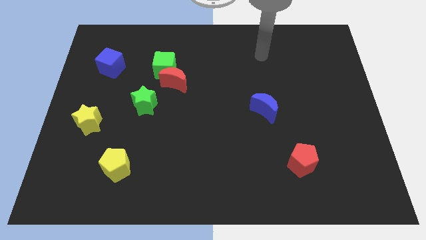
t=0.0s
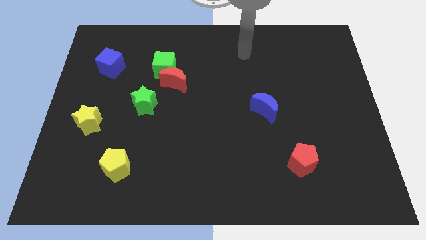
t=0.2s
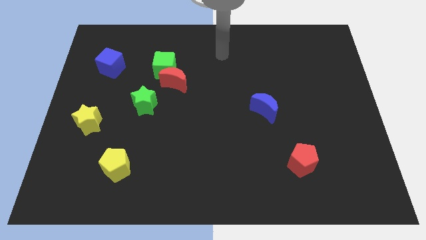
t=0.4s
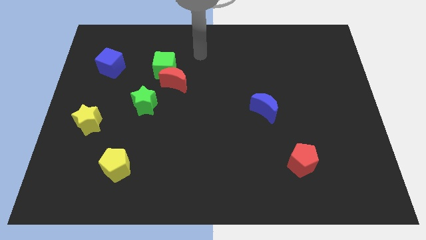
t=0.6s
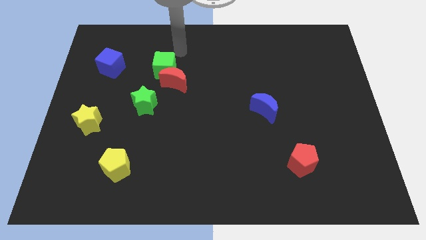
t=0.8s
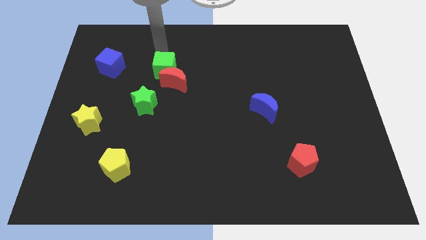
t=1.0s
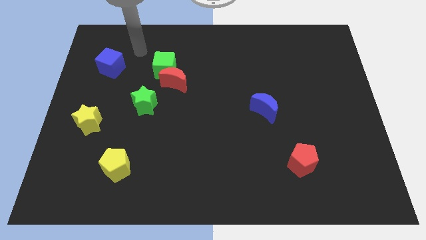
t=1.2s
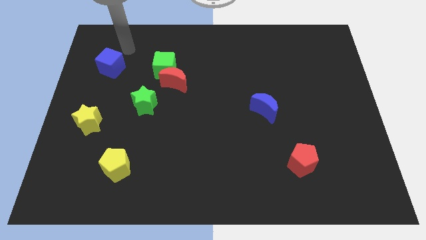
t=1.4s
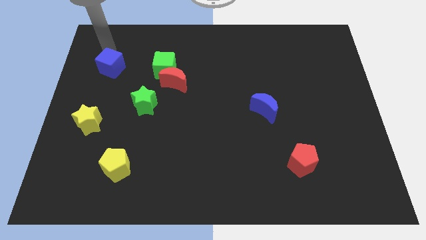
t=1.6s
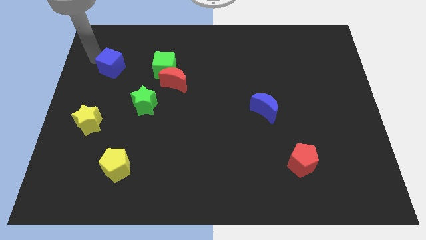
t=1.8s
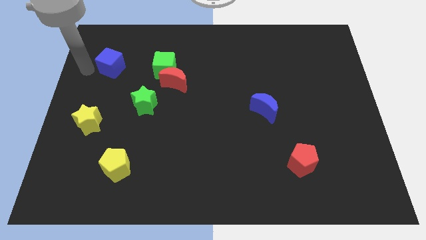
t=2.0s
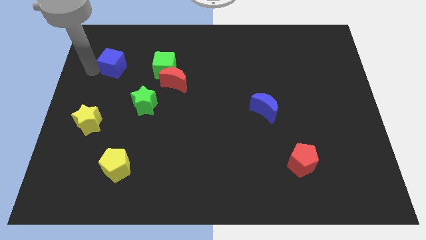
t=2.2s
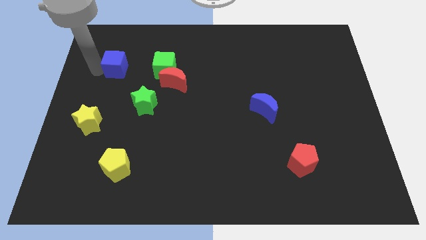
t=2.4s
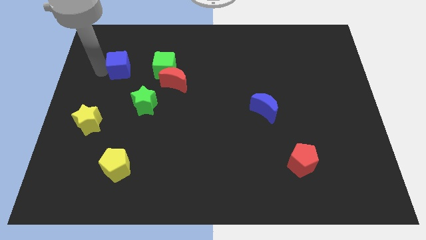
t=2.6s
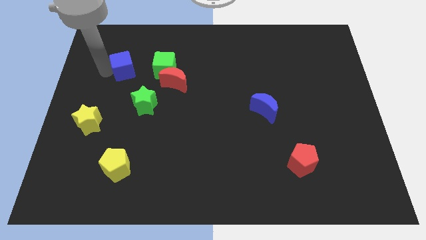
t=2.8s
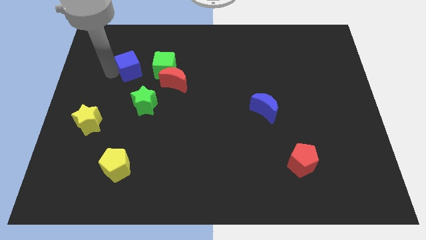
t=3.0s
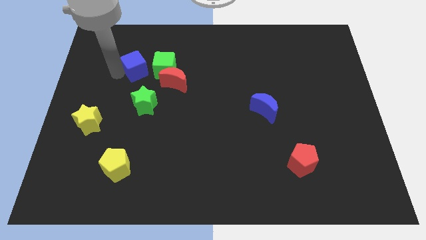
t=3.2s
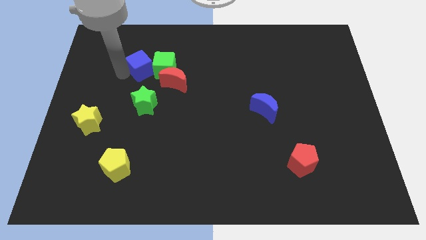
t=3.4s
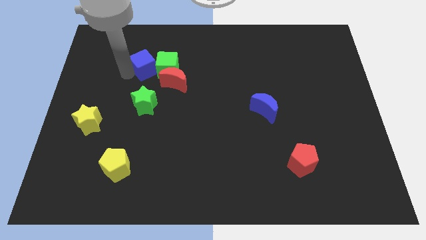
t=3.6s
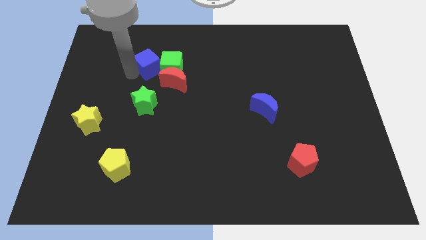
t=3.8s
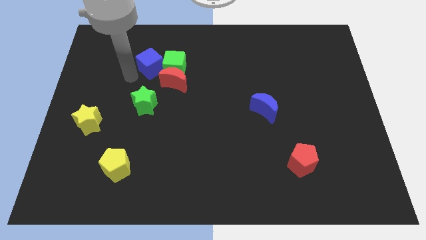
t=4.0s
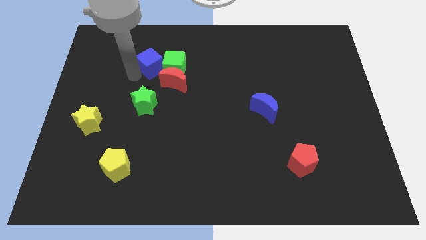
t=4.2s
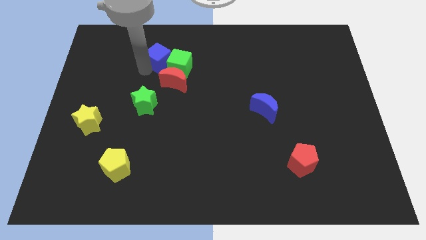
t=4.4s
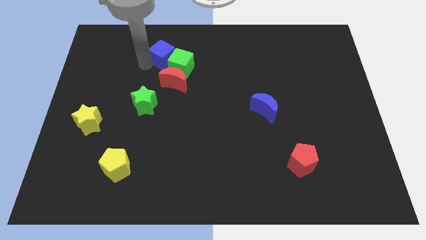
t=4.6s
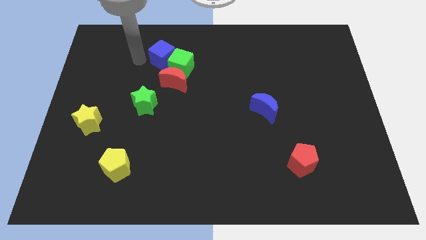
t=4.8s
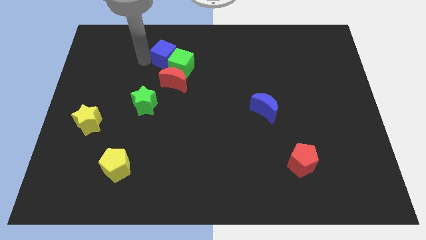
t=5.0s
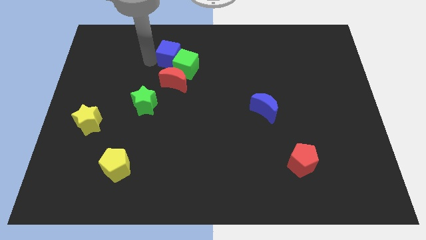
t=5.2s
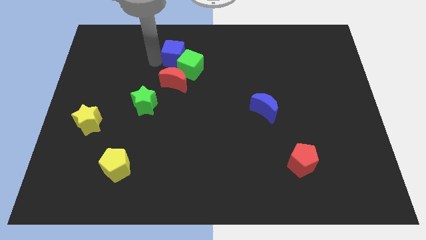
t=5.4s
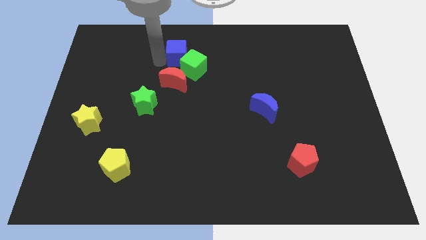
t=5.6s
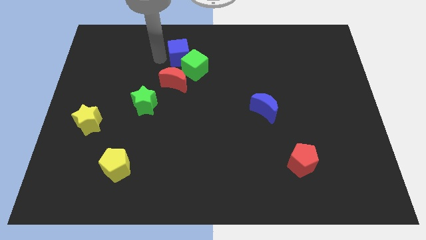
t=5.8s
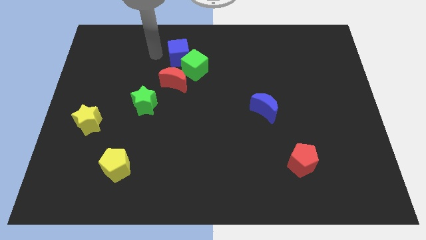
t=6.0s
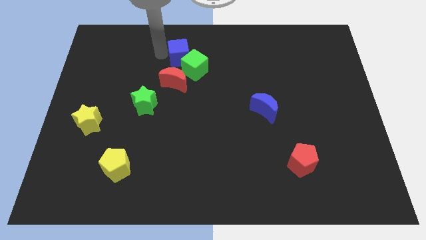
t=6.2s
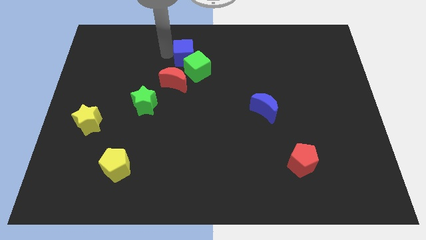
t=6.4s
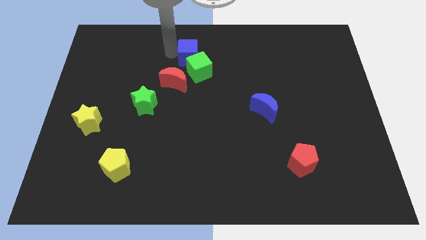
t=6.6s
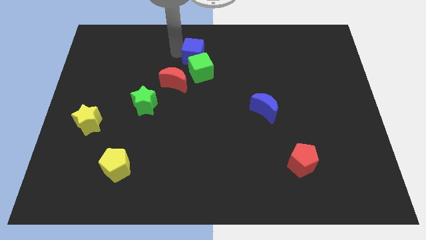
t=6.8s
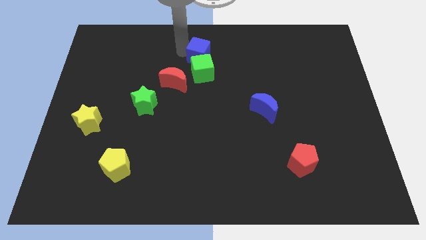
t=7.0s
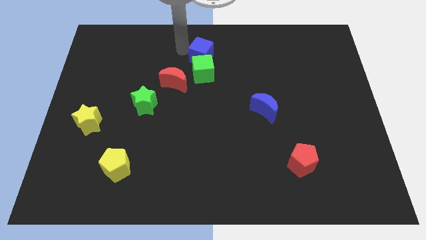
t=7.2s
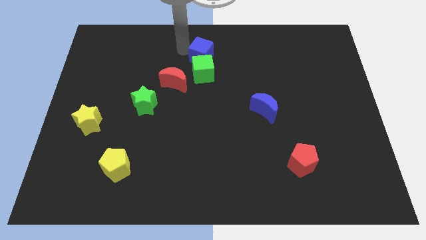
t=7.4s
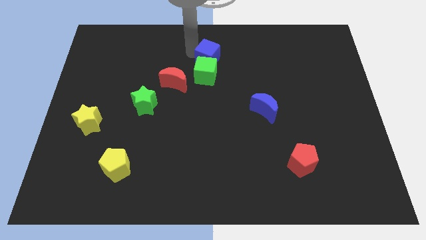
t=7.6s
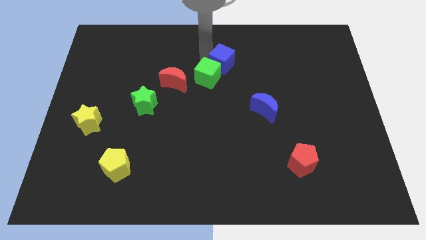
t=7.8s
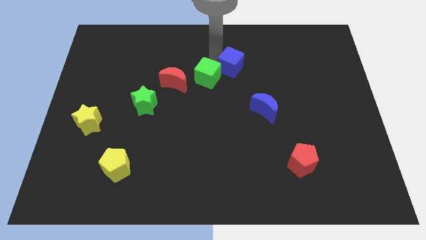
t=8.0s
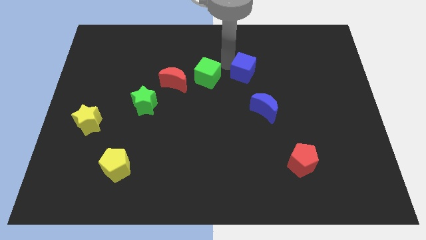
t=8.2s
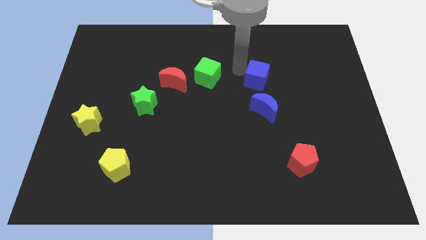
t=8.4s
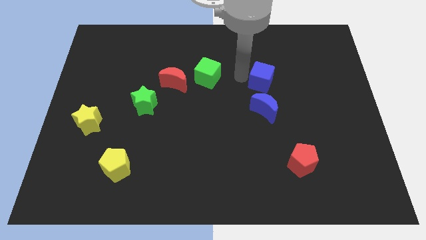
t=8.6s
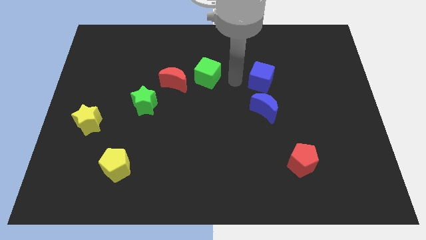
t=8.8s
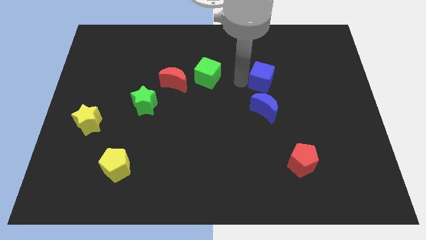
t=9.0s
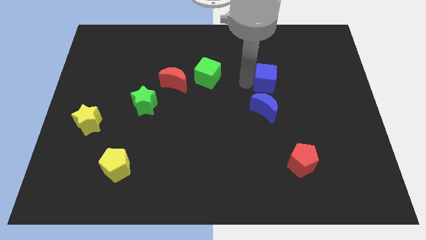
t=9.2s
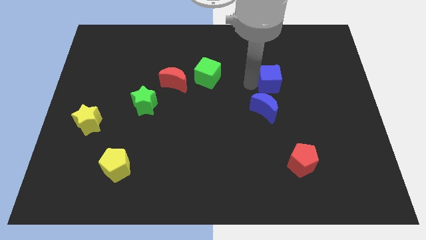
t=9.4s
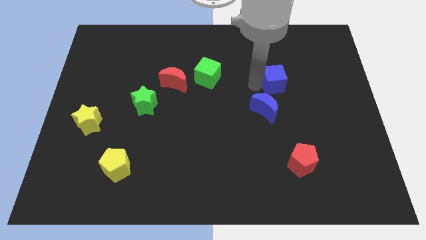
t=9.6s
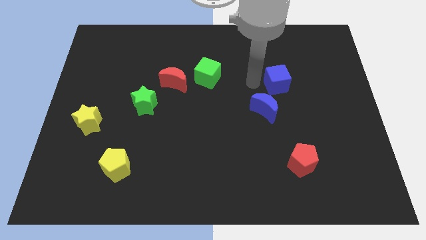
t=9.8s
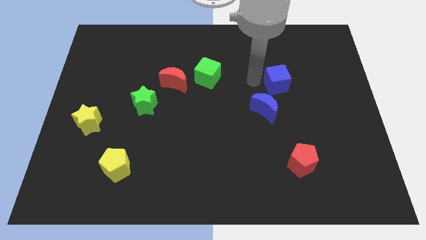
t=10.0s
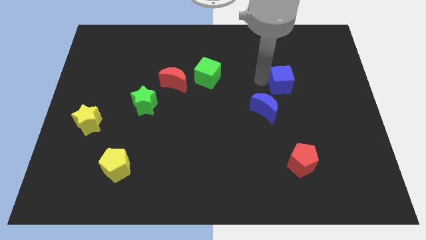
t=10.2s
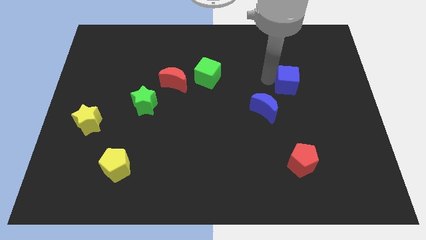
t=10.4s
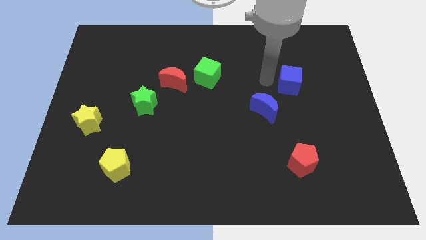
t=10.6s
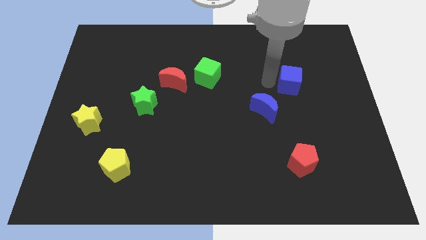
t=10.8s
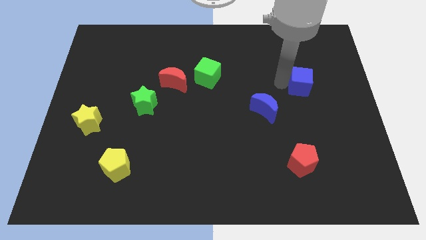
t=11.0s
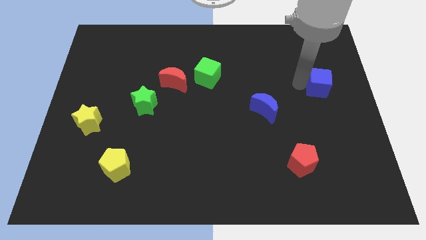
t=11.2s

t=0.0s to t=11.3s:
put the blue cube to the right side
